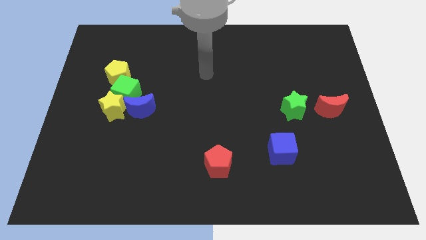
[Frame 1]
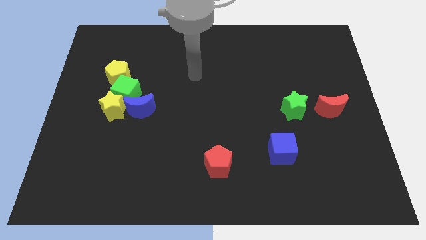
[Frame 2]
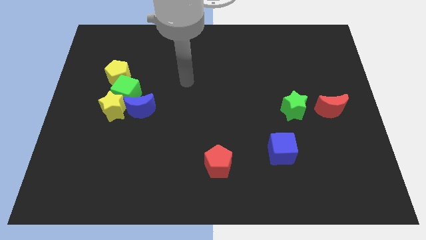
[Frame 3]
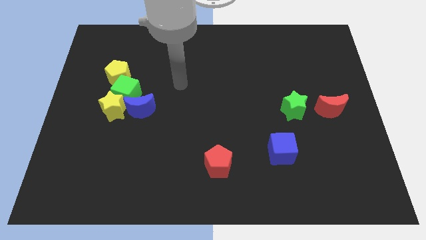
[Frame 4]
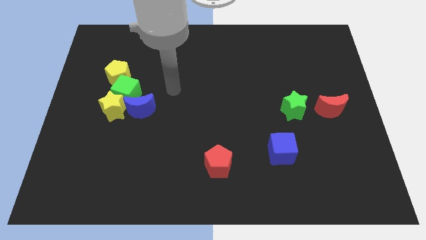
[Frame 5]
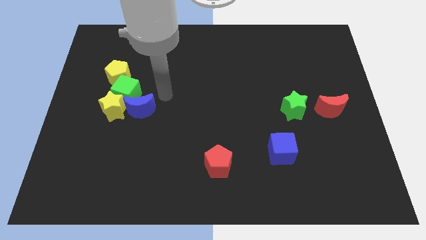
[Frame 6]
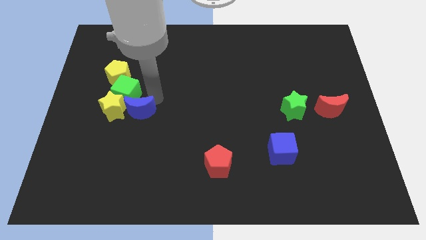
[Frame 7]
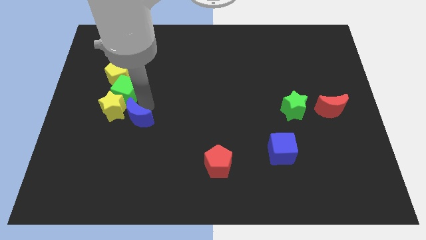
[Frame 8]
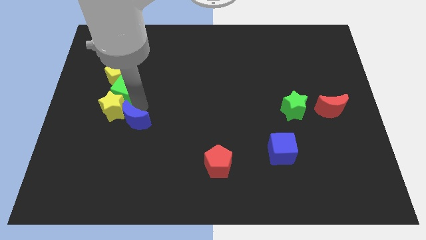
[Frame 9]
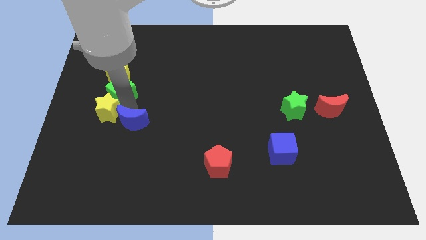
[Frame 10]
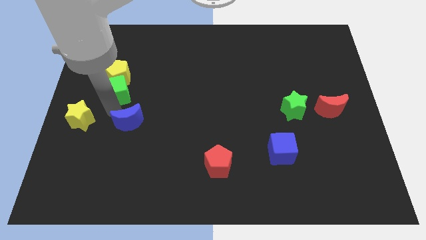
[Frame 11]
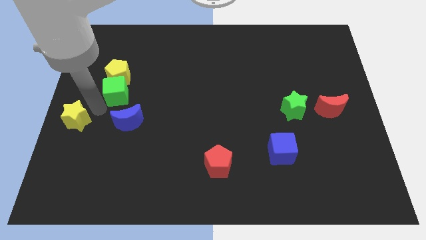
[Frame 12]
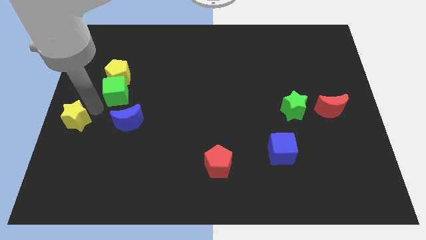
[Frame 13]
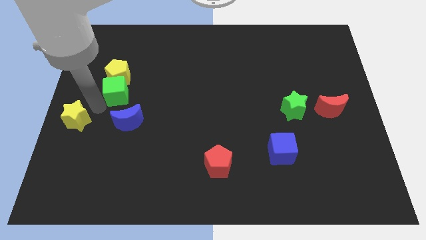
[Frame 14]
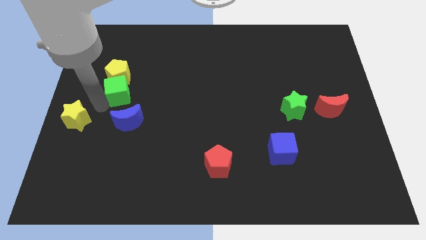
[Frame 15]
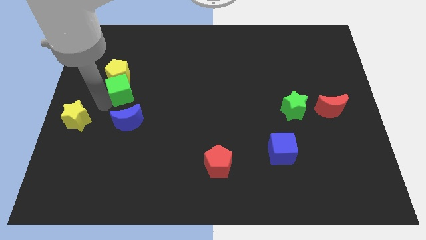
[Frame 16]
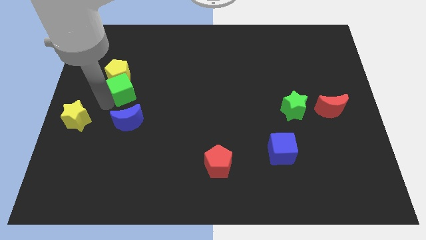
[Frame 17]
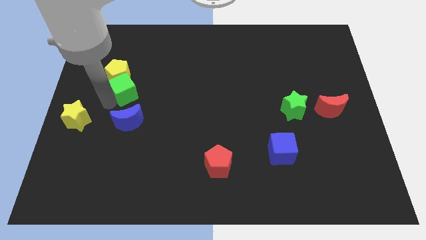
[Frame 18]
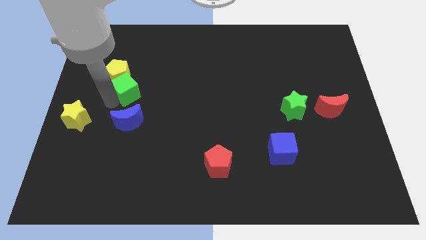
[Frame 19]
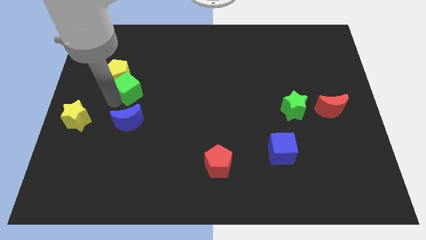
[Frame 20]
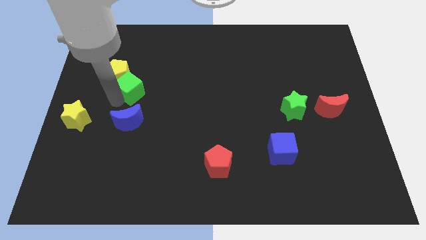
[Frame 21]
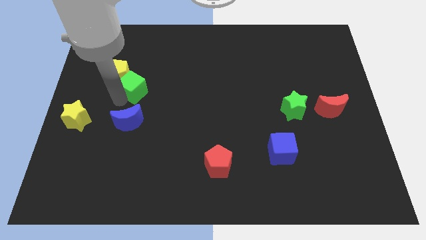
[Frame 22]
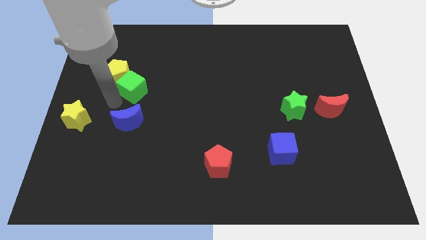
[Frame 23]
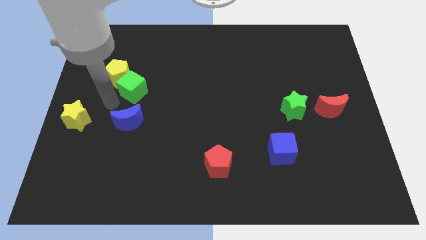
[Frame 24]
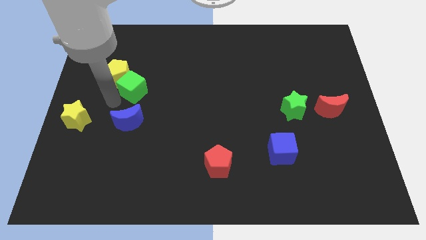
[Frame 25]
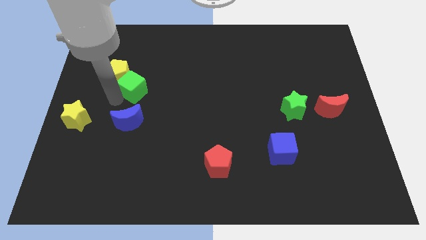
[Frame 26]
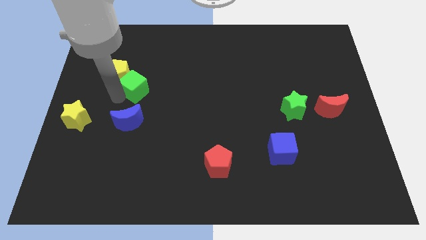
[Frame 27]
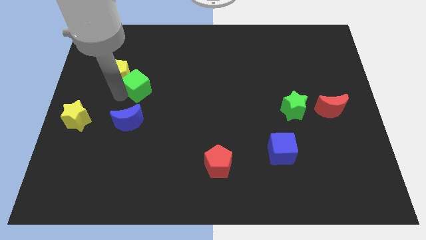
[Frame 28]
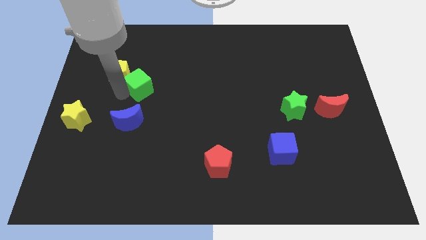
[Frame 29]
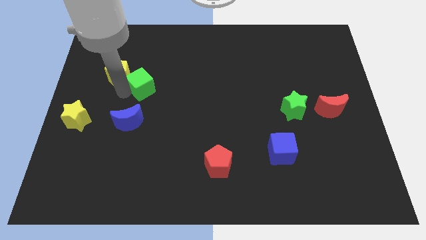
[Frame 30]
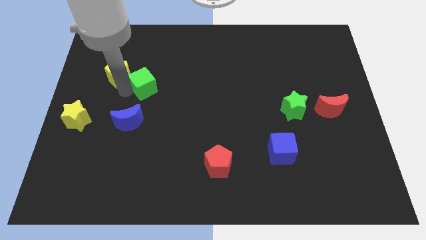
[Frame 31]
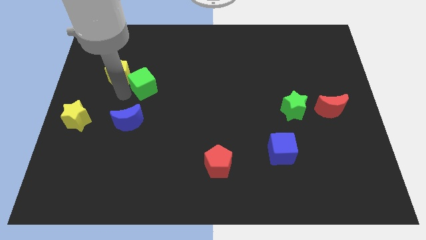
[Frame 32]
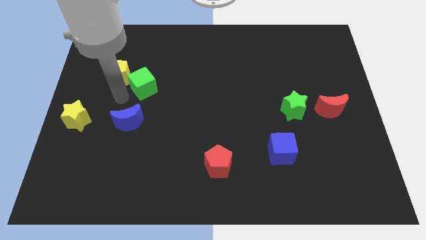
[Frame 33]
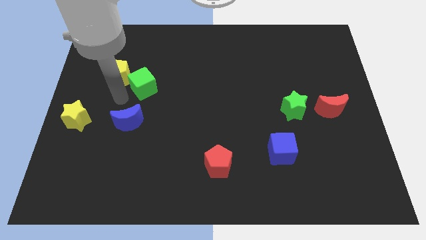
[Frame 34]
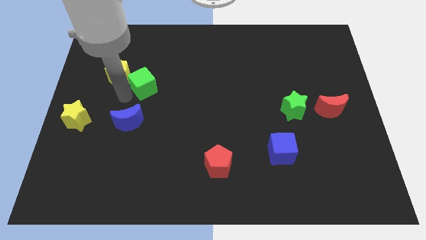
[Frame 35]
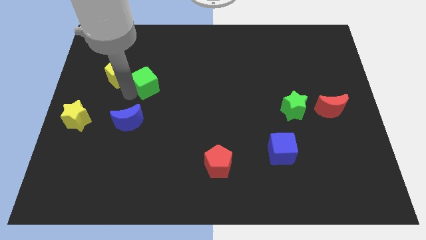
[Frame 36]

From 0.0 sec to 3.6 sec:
pull the green cube apart from the clump

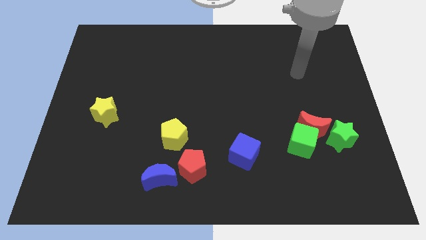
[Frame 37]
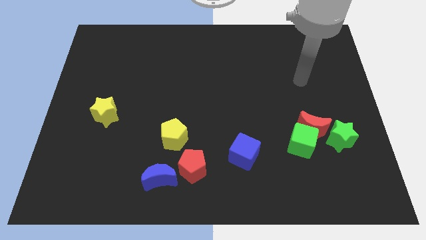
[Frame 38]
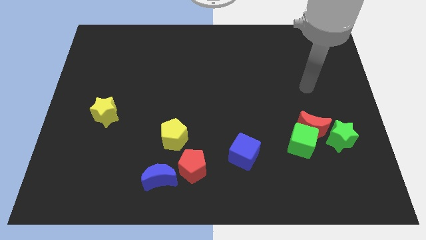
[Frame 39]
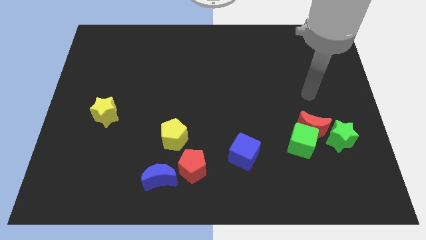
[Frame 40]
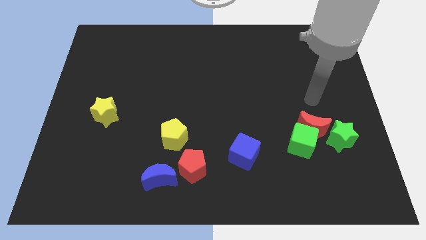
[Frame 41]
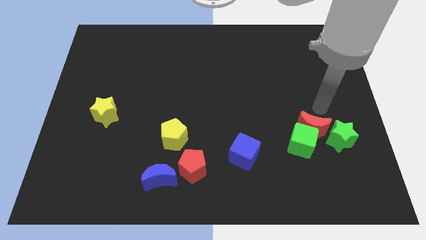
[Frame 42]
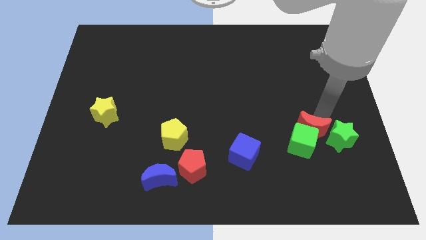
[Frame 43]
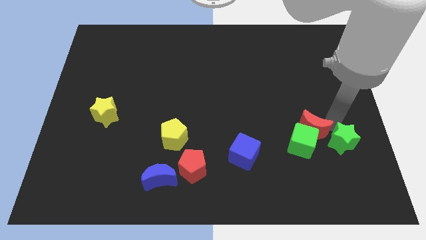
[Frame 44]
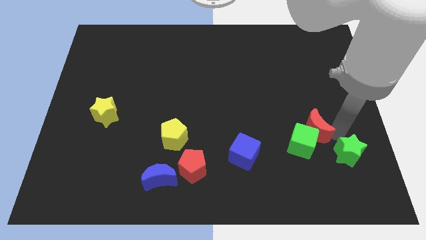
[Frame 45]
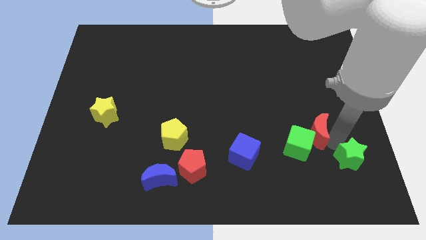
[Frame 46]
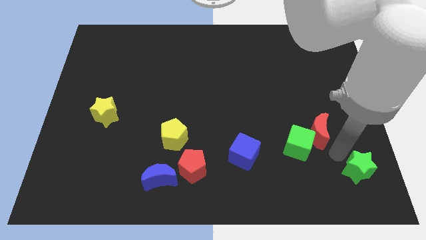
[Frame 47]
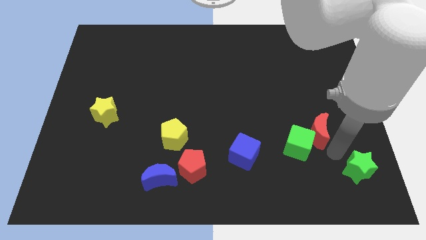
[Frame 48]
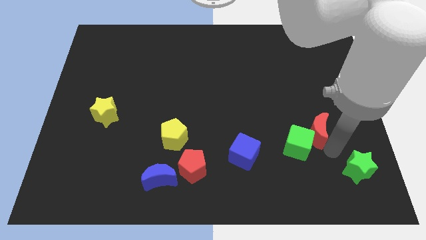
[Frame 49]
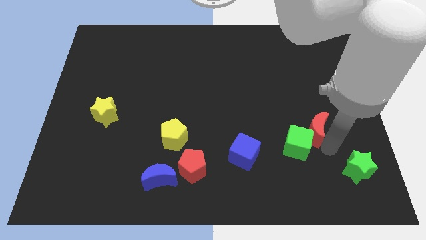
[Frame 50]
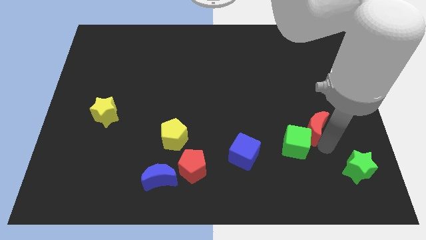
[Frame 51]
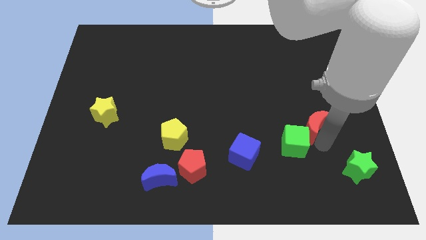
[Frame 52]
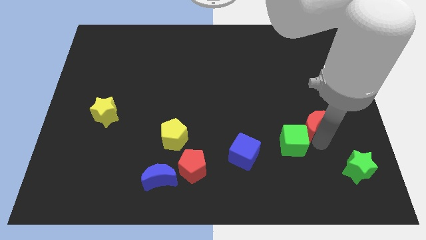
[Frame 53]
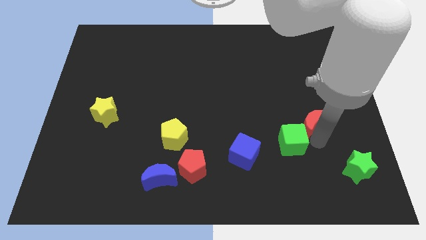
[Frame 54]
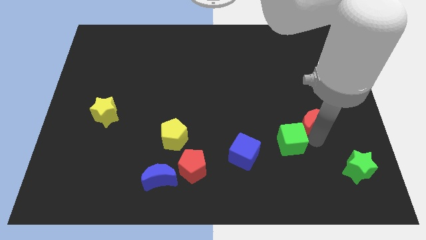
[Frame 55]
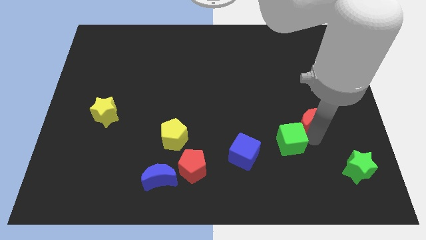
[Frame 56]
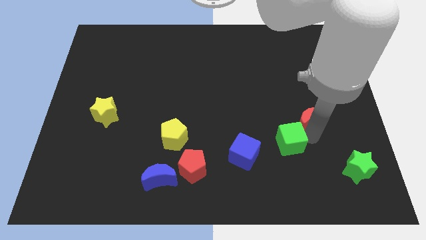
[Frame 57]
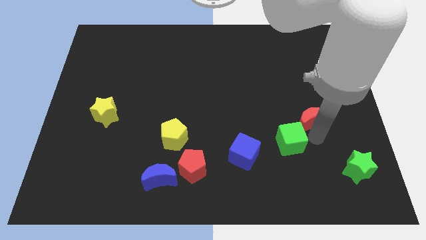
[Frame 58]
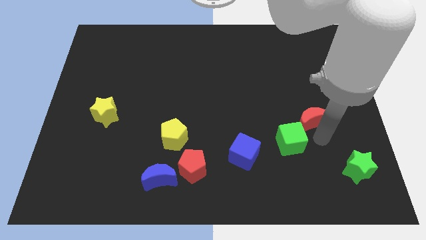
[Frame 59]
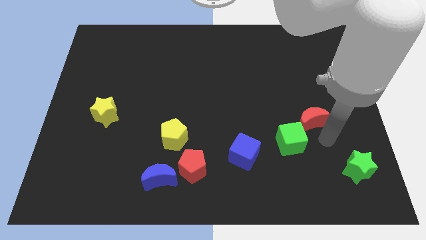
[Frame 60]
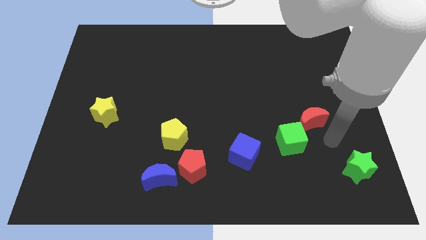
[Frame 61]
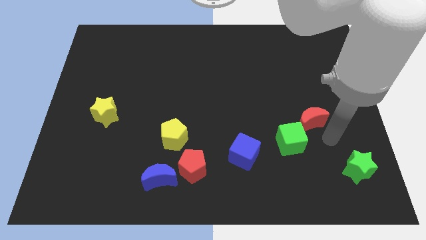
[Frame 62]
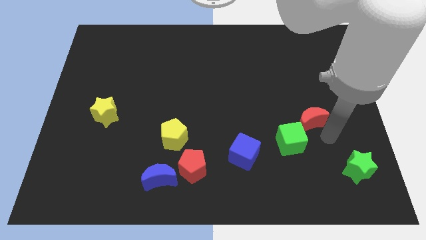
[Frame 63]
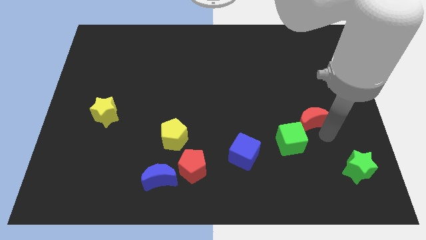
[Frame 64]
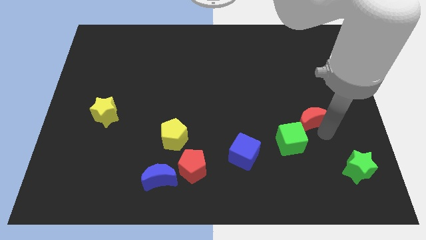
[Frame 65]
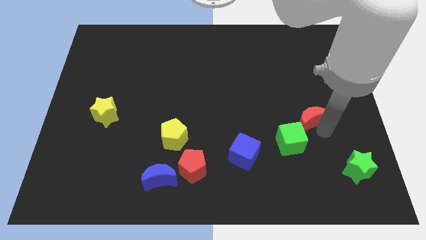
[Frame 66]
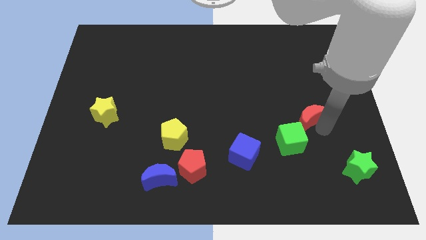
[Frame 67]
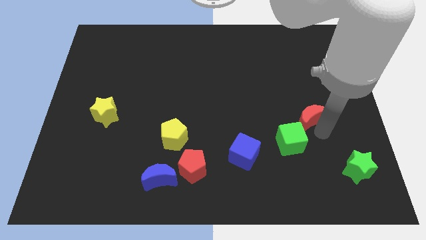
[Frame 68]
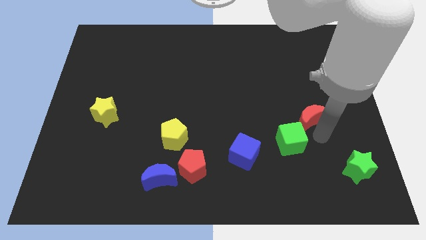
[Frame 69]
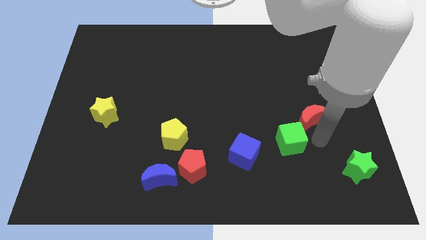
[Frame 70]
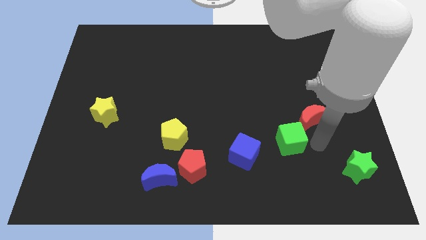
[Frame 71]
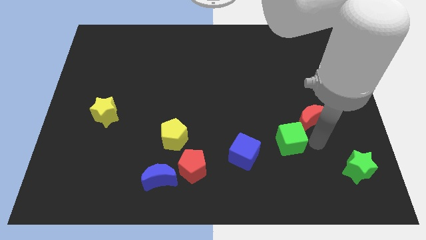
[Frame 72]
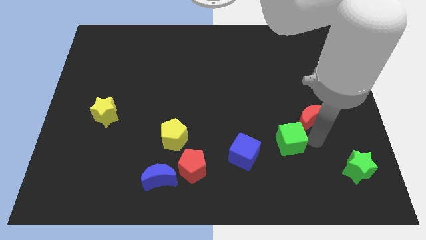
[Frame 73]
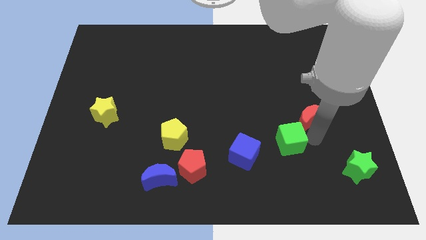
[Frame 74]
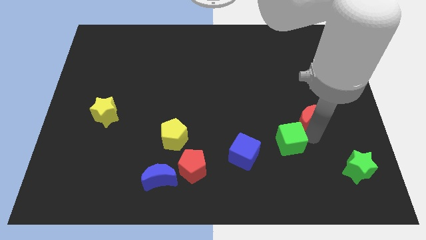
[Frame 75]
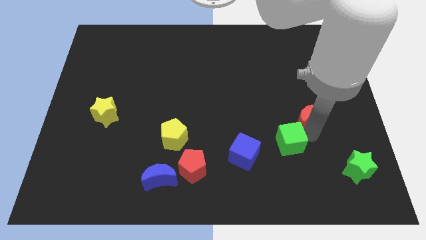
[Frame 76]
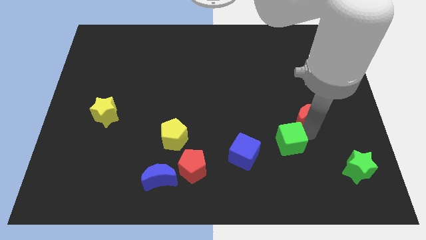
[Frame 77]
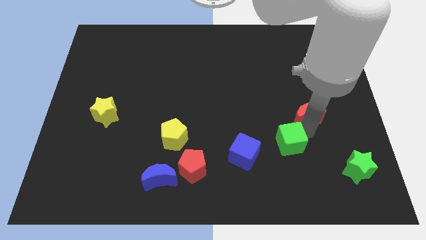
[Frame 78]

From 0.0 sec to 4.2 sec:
move the red moon away from the green cube and green star

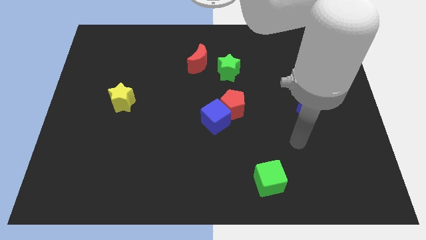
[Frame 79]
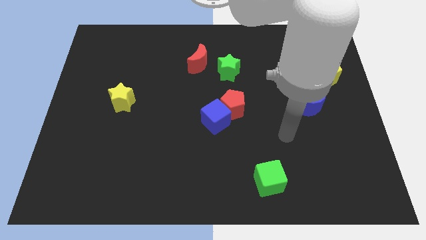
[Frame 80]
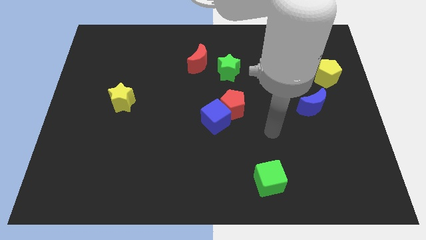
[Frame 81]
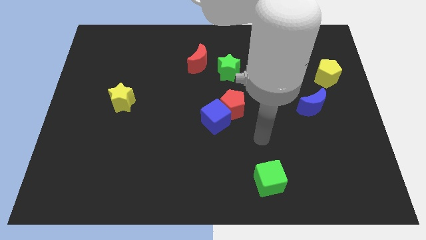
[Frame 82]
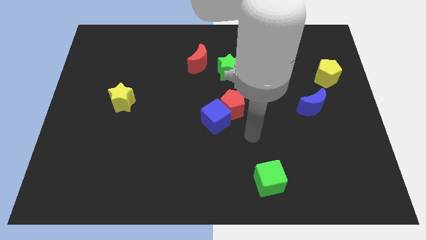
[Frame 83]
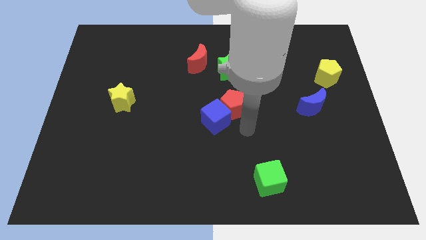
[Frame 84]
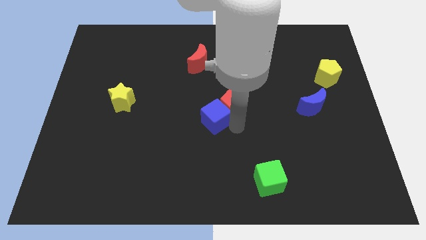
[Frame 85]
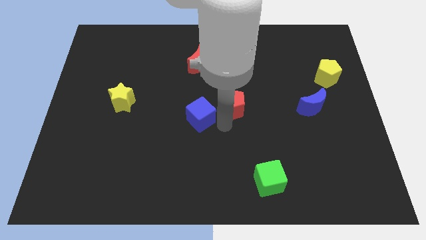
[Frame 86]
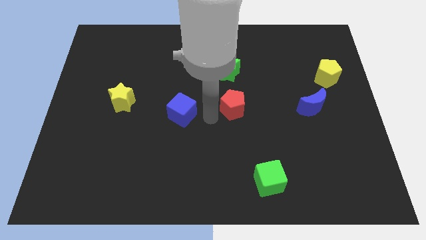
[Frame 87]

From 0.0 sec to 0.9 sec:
move the red pentagon away from the blue cube

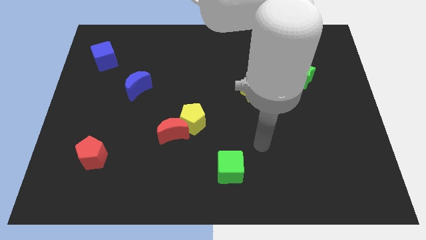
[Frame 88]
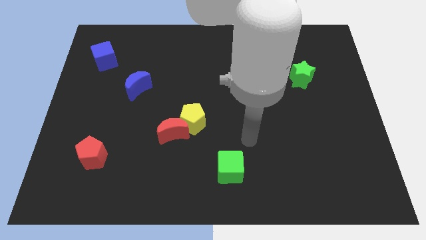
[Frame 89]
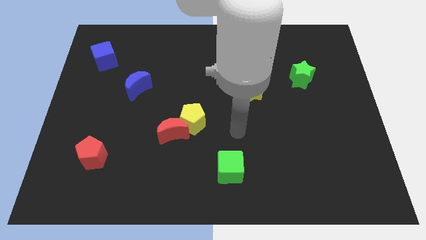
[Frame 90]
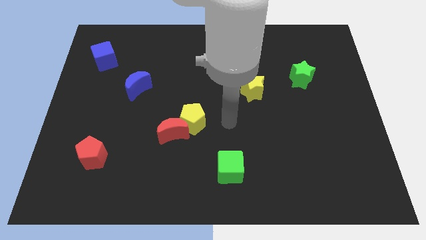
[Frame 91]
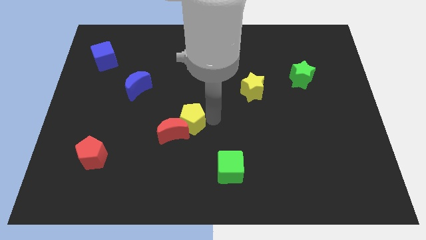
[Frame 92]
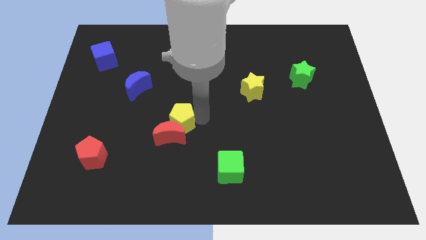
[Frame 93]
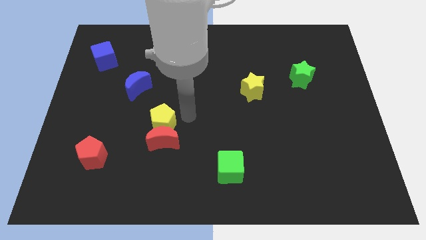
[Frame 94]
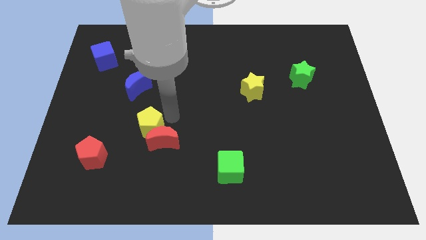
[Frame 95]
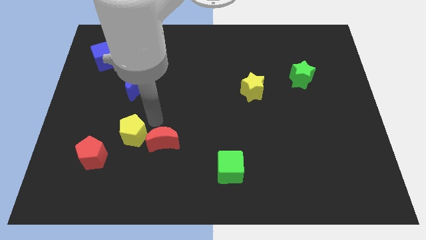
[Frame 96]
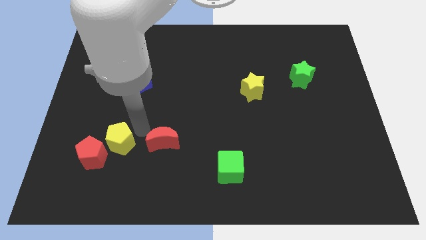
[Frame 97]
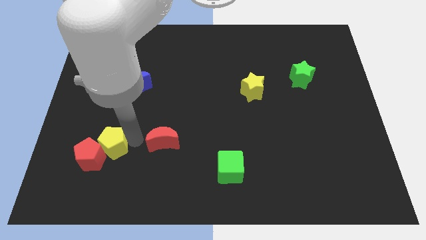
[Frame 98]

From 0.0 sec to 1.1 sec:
pull the red moon apart from the yellow pentagon
